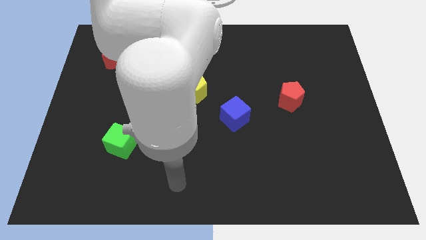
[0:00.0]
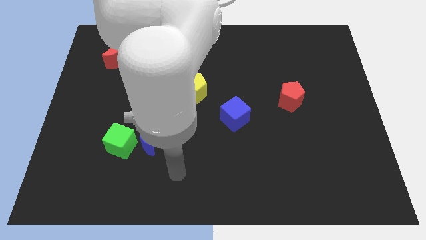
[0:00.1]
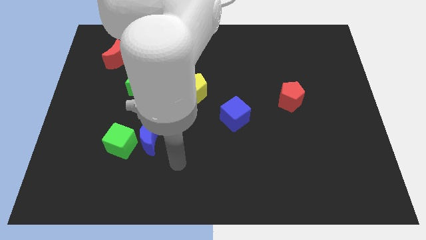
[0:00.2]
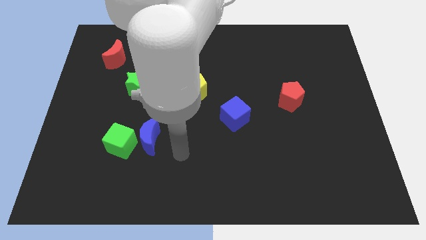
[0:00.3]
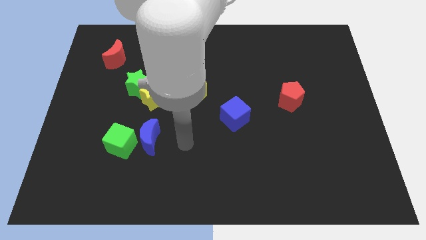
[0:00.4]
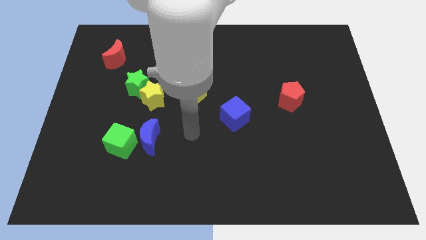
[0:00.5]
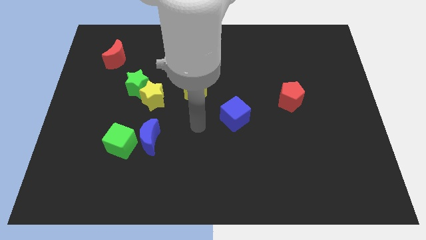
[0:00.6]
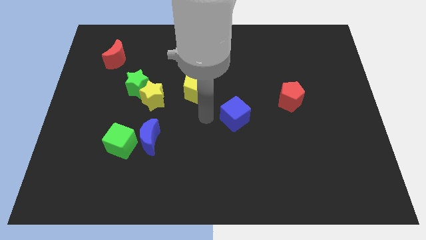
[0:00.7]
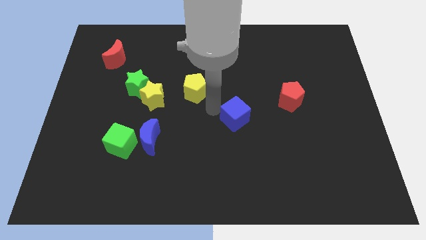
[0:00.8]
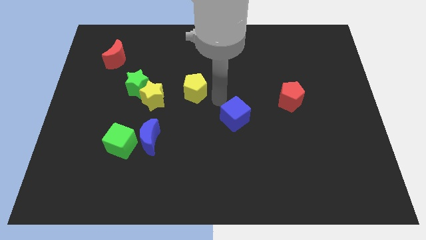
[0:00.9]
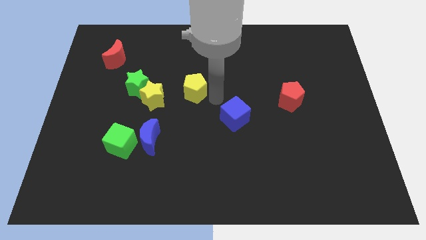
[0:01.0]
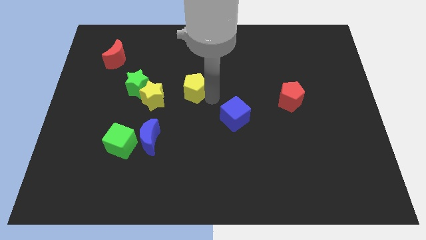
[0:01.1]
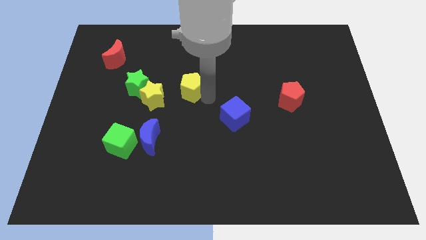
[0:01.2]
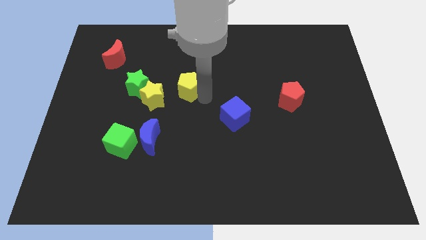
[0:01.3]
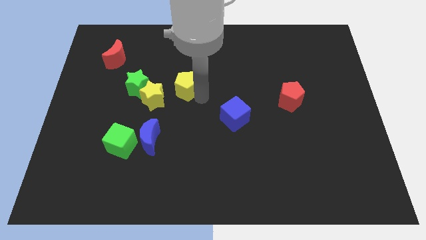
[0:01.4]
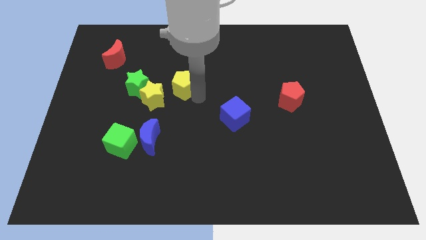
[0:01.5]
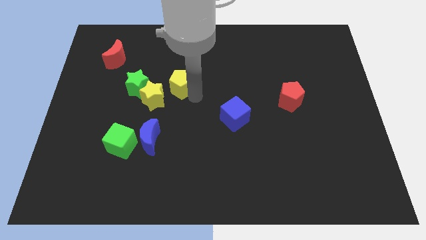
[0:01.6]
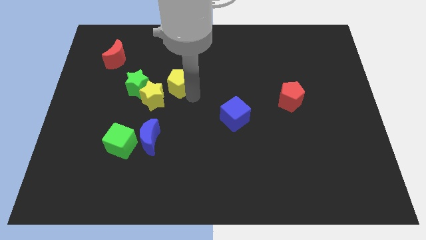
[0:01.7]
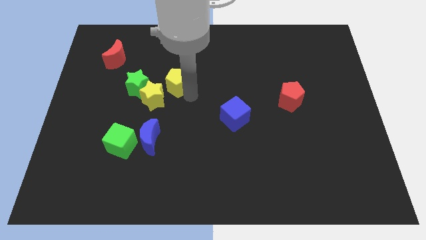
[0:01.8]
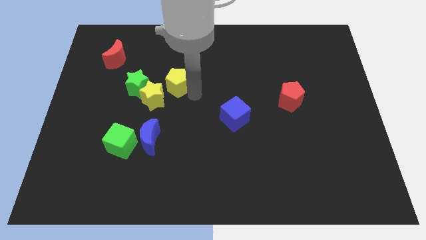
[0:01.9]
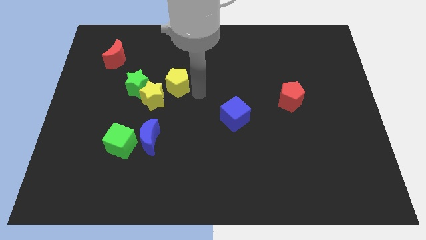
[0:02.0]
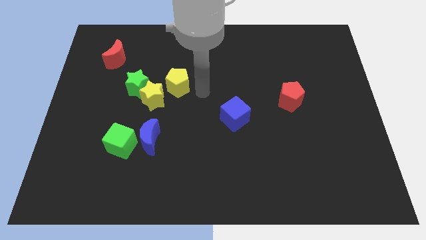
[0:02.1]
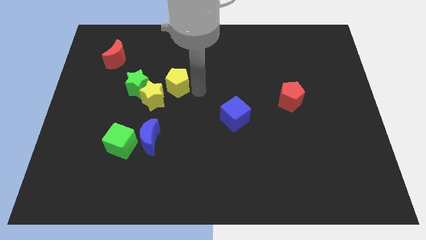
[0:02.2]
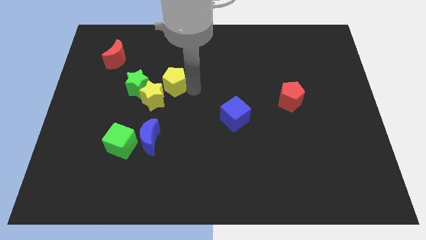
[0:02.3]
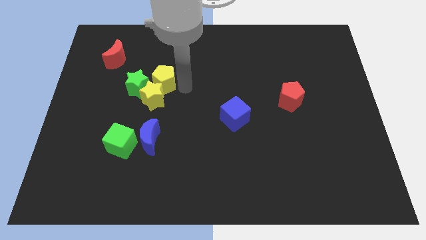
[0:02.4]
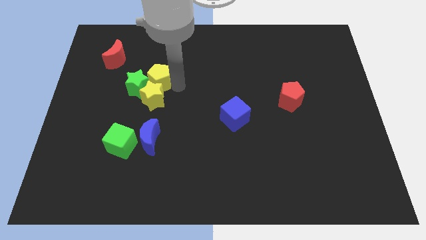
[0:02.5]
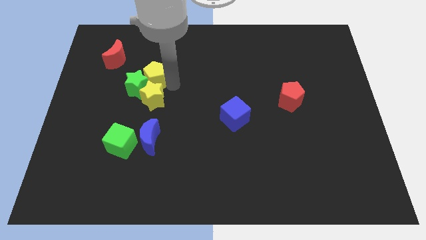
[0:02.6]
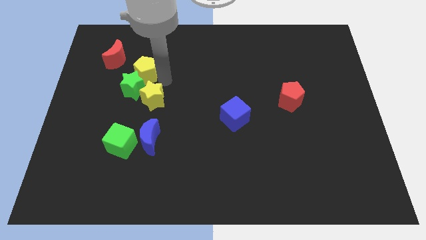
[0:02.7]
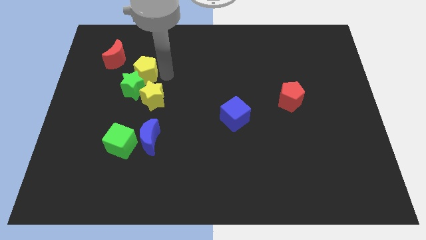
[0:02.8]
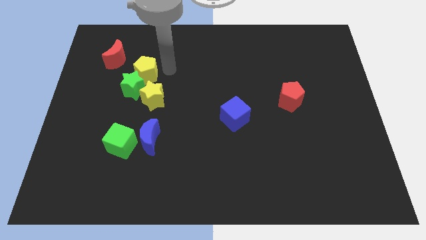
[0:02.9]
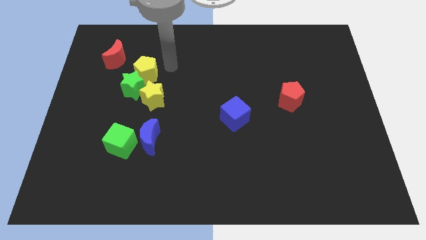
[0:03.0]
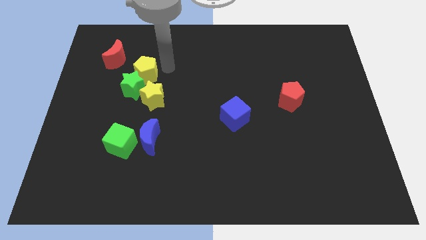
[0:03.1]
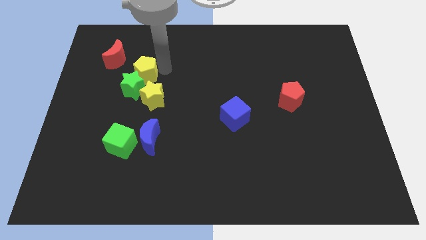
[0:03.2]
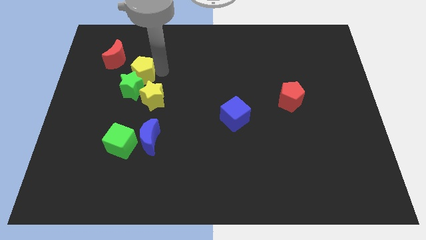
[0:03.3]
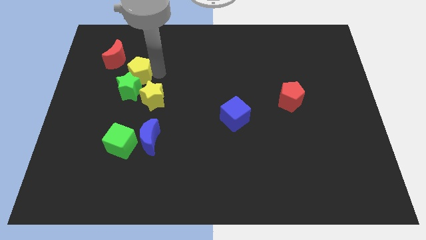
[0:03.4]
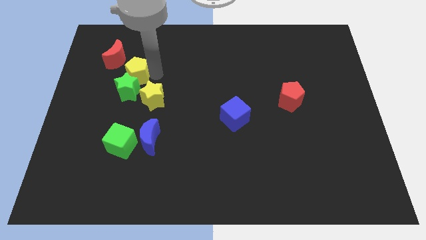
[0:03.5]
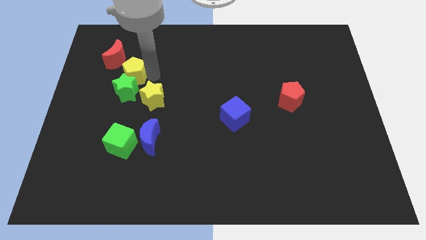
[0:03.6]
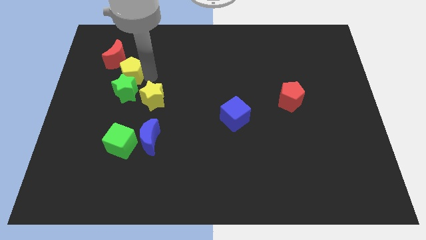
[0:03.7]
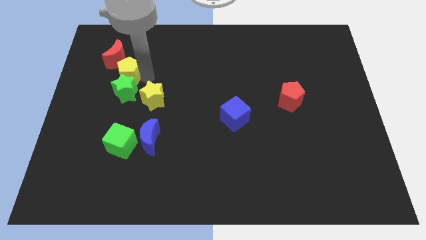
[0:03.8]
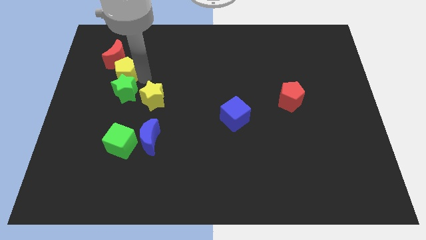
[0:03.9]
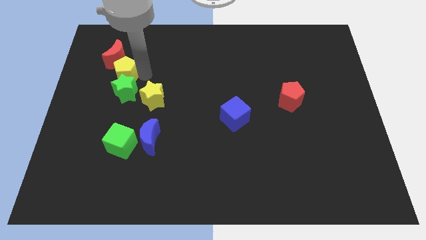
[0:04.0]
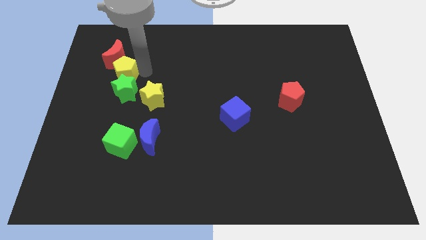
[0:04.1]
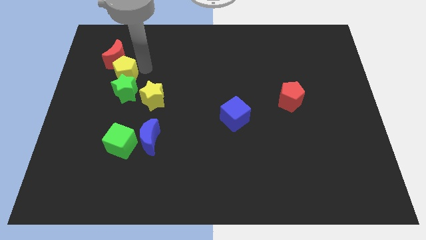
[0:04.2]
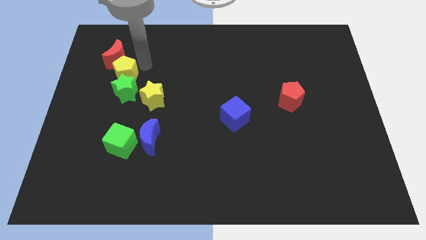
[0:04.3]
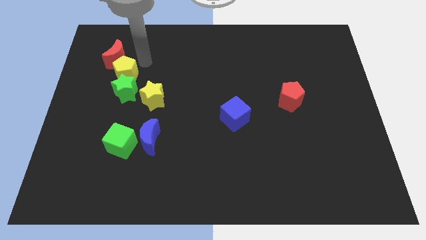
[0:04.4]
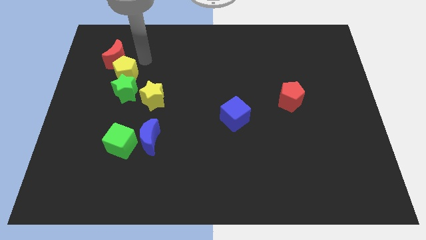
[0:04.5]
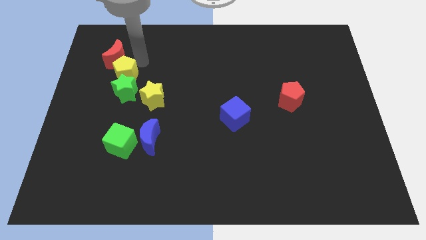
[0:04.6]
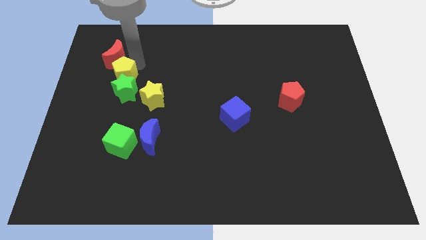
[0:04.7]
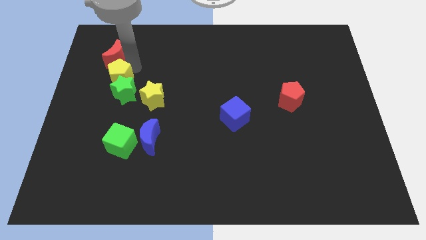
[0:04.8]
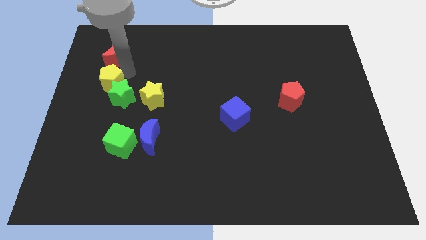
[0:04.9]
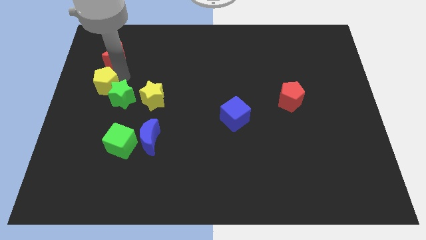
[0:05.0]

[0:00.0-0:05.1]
put the yellow pentagon to the left side

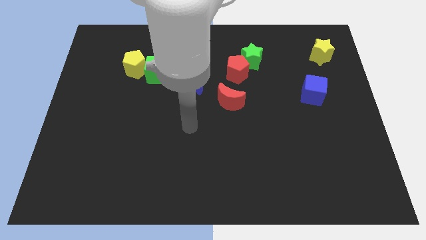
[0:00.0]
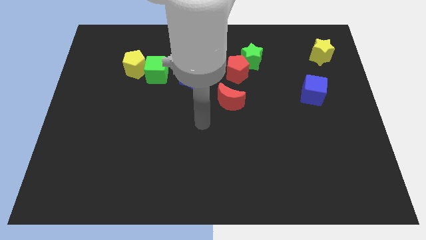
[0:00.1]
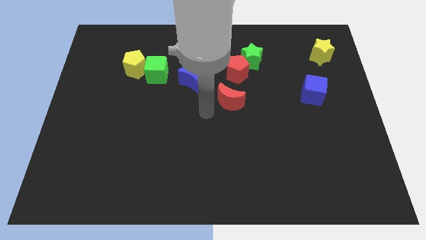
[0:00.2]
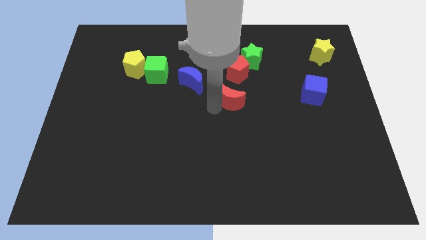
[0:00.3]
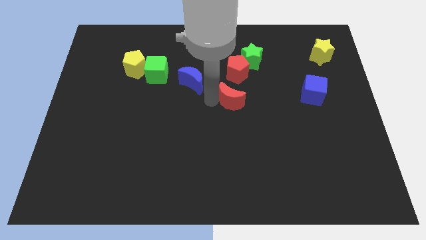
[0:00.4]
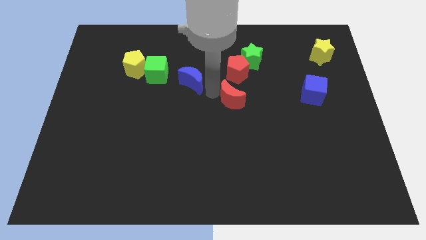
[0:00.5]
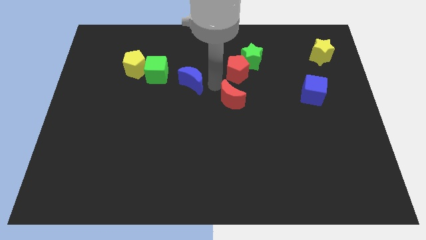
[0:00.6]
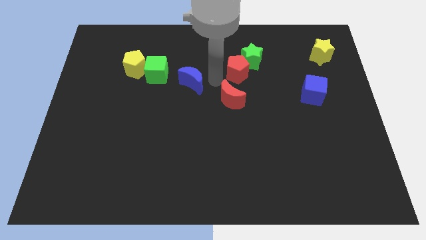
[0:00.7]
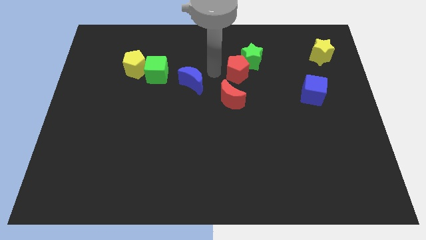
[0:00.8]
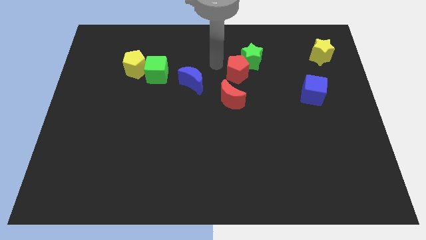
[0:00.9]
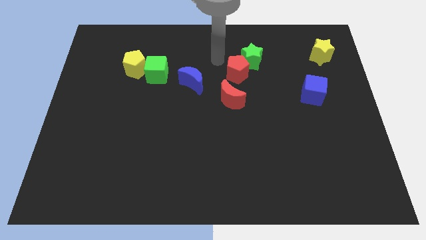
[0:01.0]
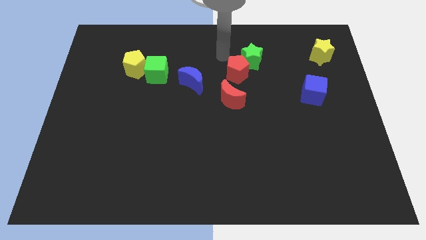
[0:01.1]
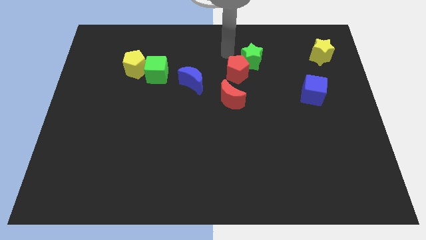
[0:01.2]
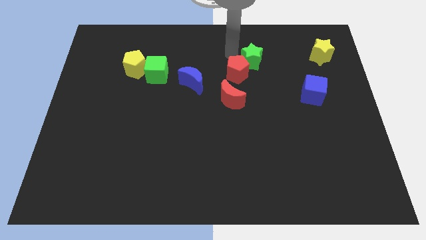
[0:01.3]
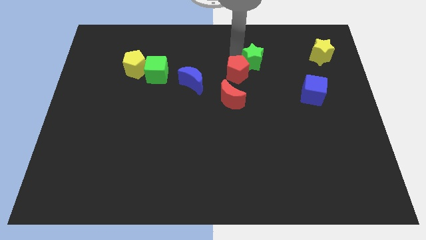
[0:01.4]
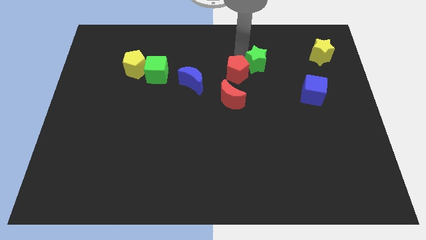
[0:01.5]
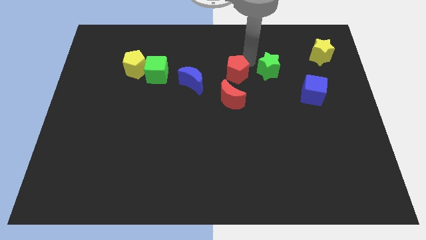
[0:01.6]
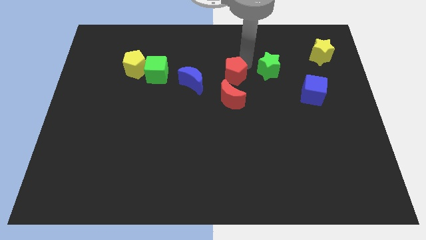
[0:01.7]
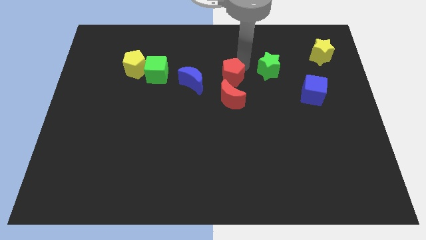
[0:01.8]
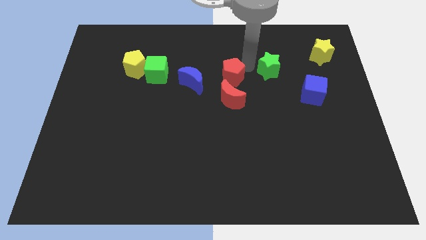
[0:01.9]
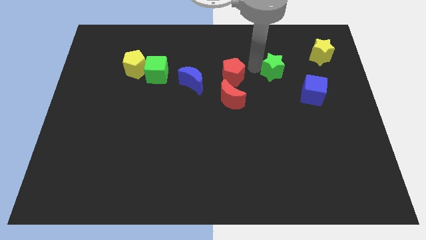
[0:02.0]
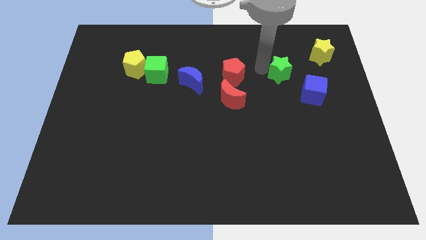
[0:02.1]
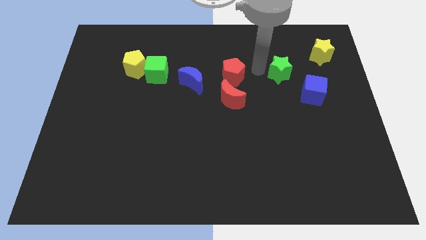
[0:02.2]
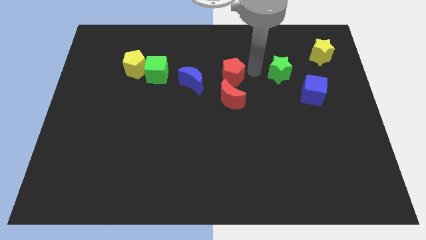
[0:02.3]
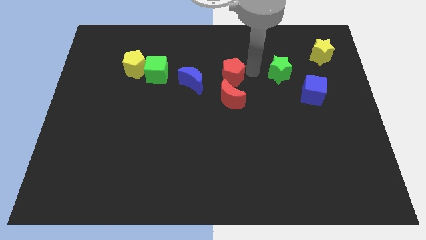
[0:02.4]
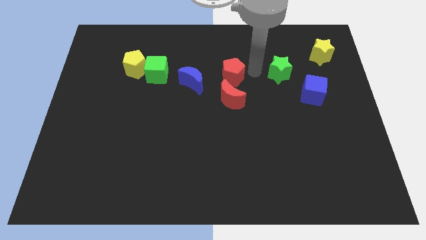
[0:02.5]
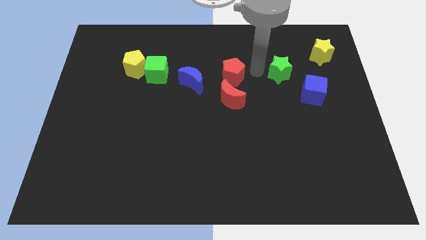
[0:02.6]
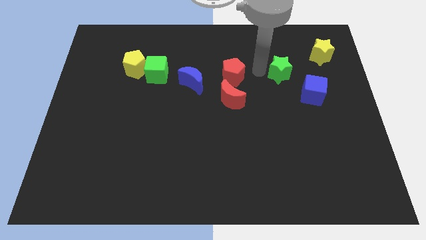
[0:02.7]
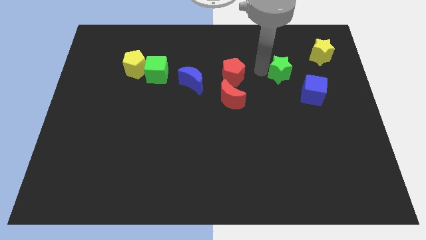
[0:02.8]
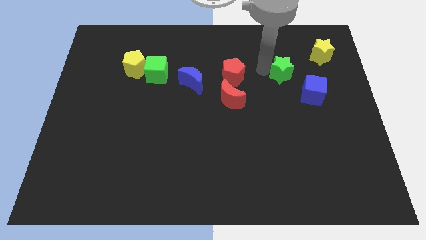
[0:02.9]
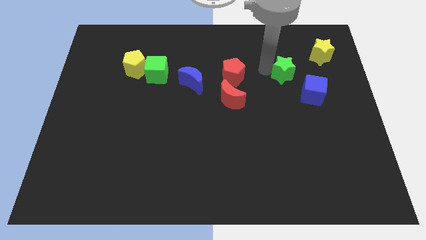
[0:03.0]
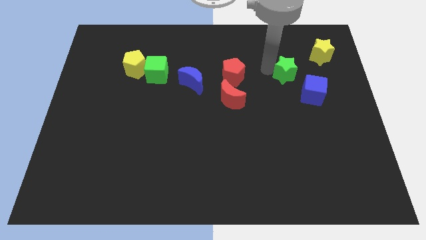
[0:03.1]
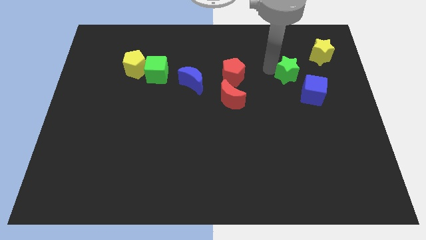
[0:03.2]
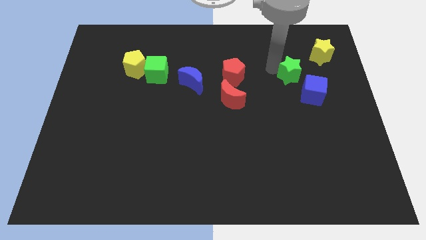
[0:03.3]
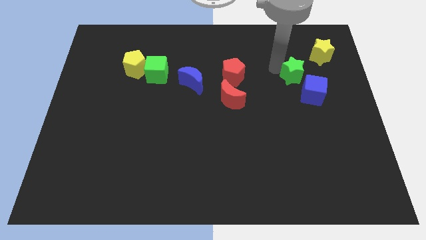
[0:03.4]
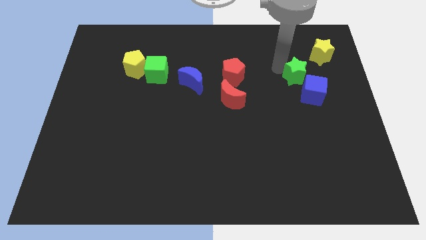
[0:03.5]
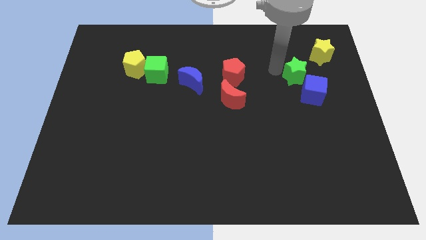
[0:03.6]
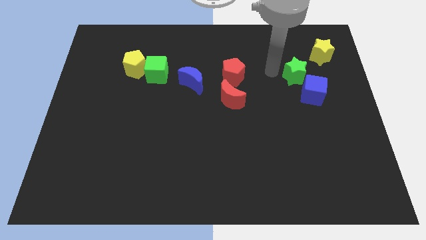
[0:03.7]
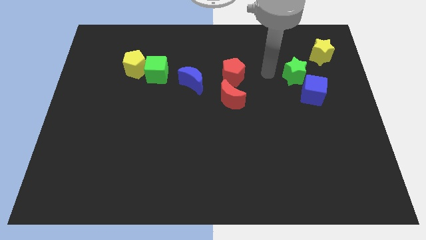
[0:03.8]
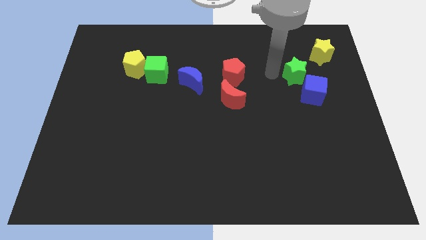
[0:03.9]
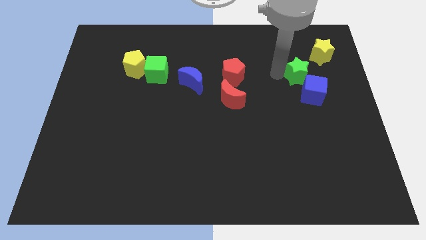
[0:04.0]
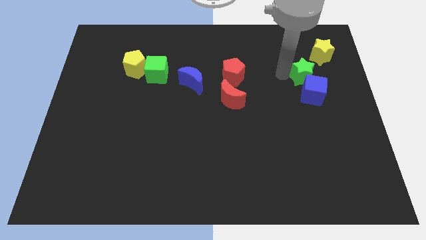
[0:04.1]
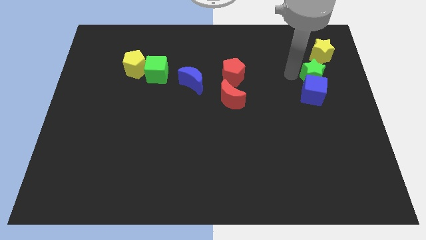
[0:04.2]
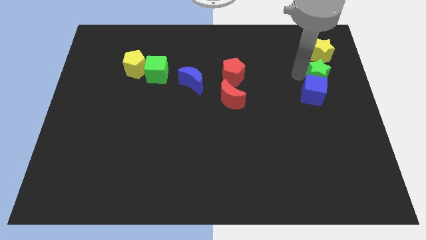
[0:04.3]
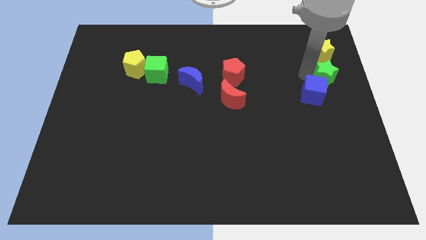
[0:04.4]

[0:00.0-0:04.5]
push the green star to the right side of the board
